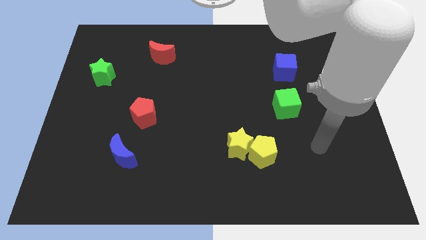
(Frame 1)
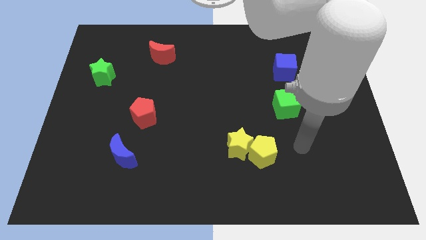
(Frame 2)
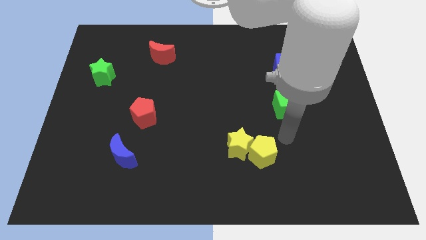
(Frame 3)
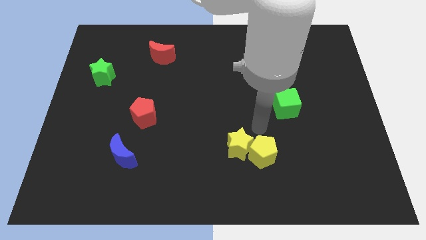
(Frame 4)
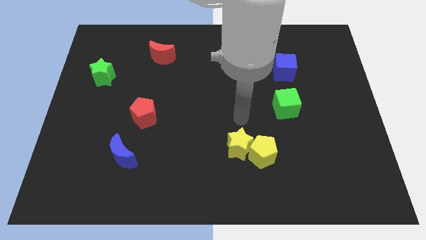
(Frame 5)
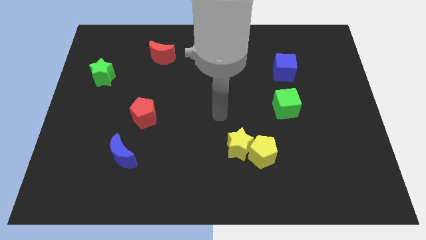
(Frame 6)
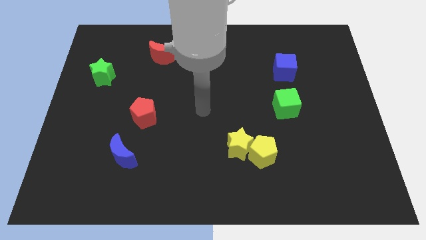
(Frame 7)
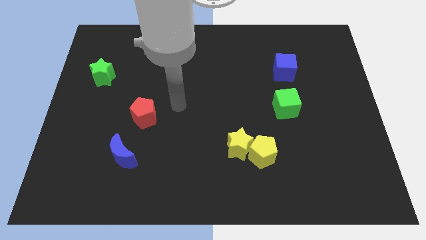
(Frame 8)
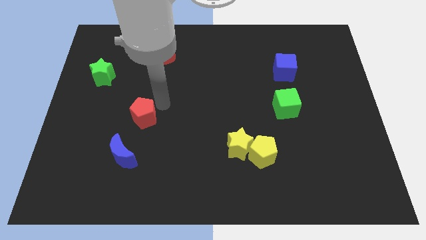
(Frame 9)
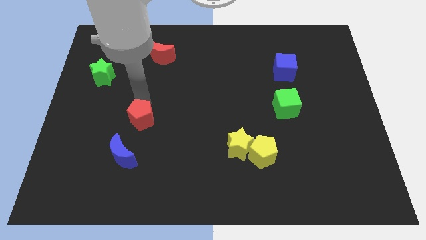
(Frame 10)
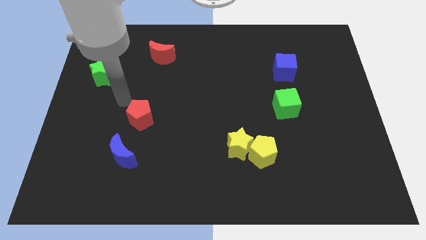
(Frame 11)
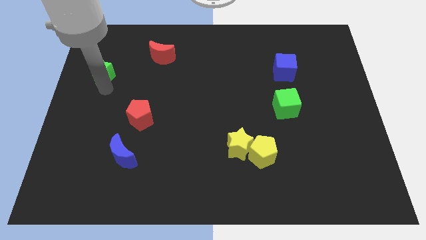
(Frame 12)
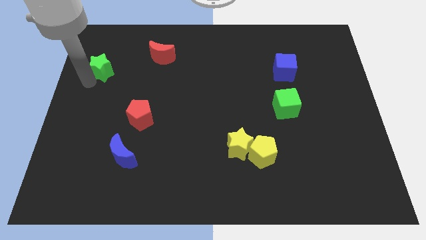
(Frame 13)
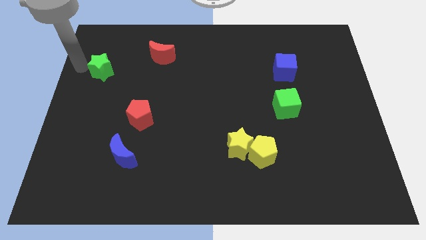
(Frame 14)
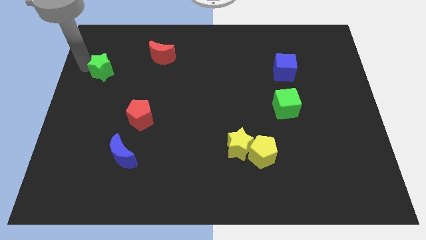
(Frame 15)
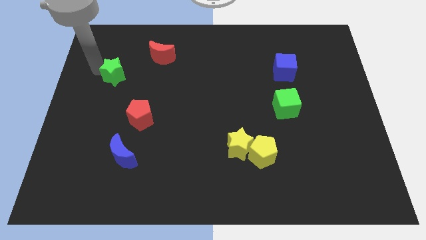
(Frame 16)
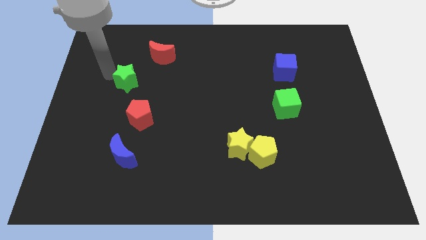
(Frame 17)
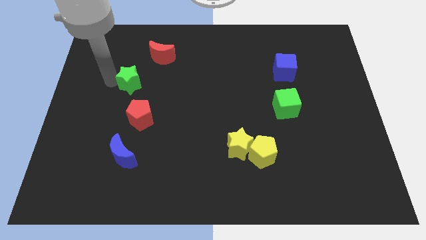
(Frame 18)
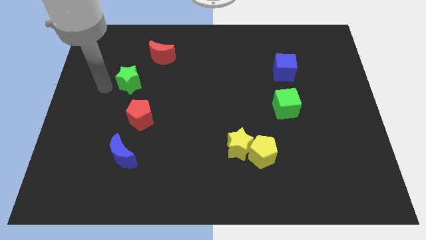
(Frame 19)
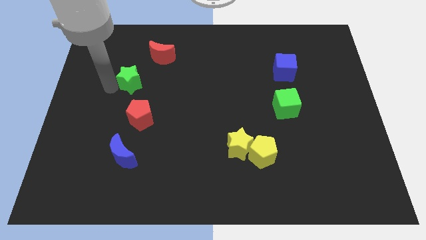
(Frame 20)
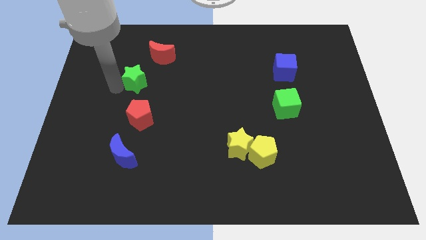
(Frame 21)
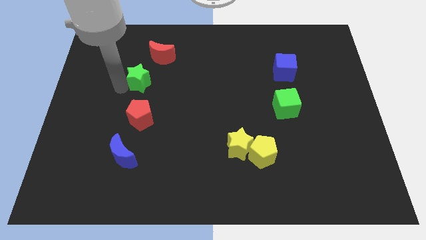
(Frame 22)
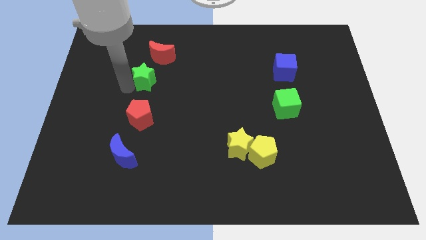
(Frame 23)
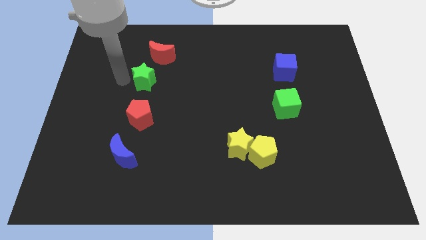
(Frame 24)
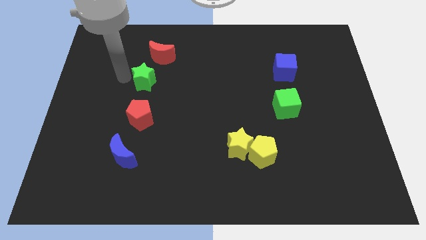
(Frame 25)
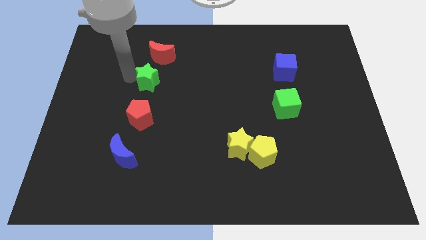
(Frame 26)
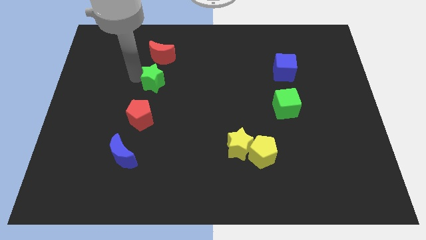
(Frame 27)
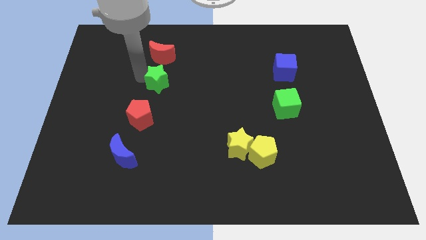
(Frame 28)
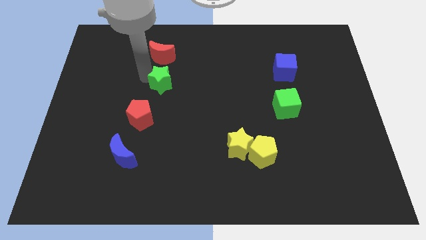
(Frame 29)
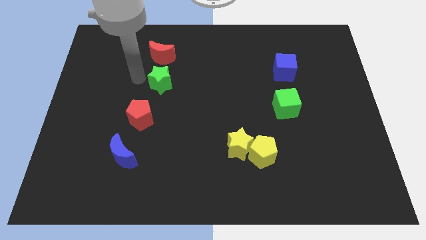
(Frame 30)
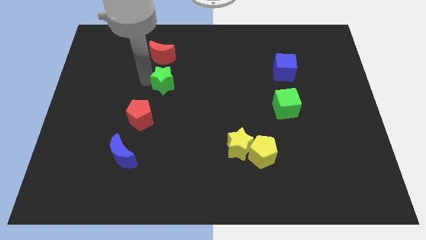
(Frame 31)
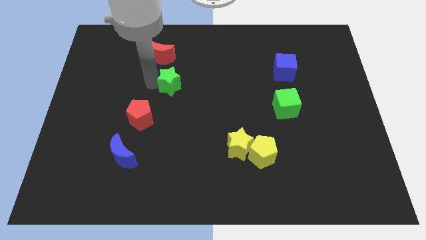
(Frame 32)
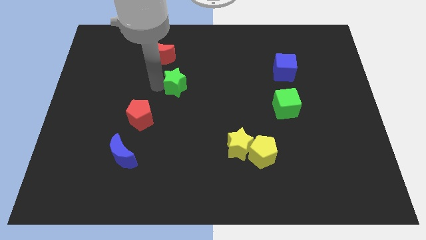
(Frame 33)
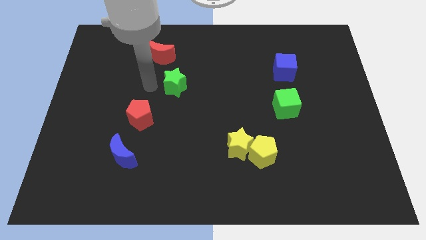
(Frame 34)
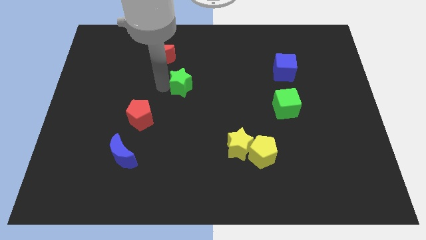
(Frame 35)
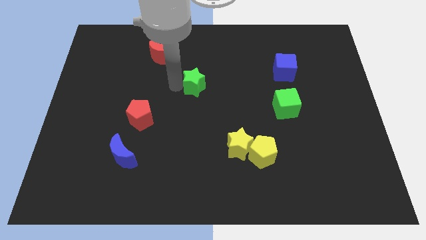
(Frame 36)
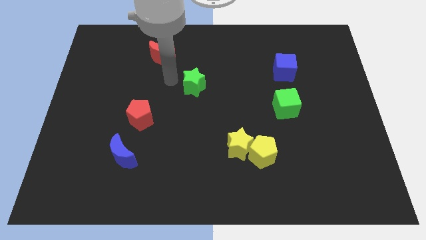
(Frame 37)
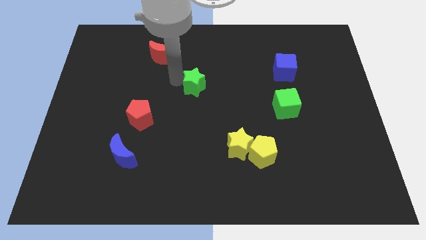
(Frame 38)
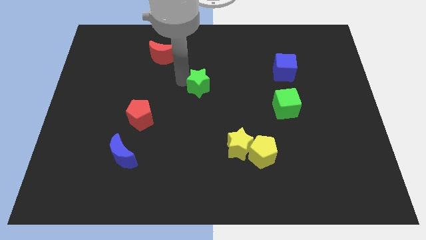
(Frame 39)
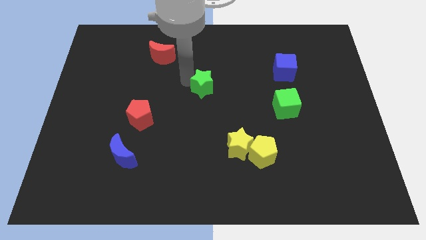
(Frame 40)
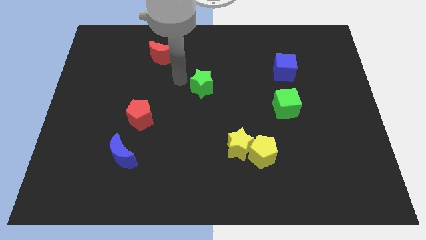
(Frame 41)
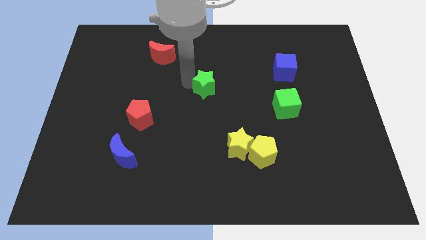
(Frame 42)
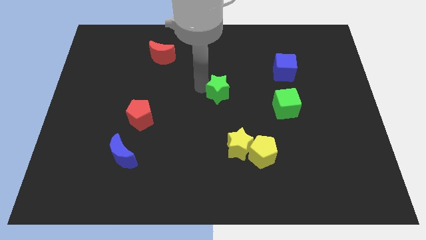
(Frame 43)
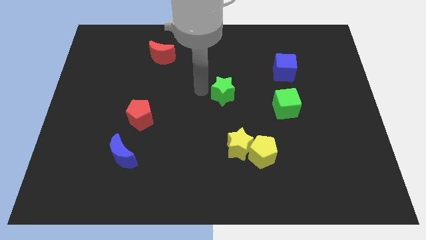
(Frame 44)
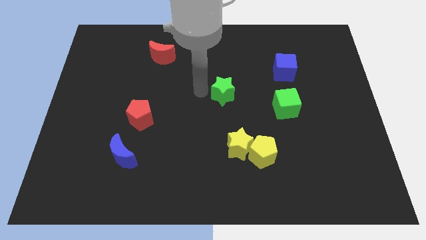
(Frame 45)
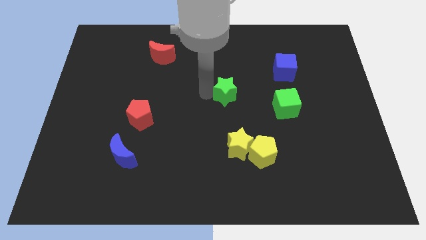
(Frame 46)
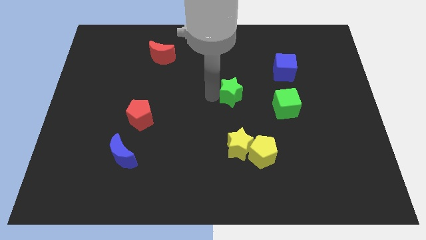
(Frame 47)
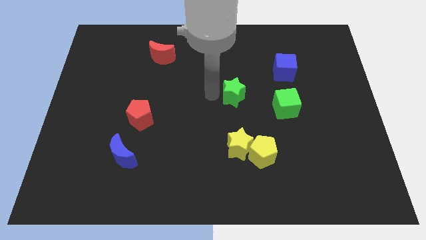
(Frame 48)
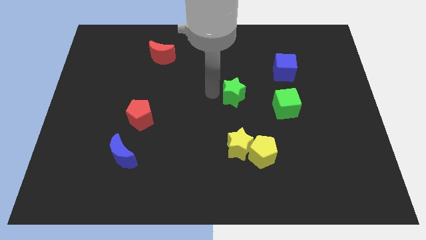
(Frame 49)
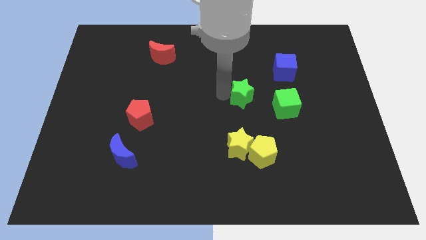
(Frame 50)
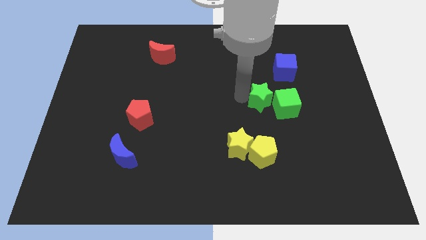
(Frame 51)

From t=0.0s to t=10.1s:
put the green star to the green cube
